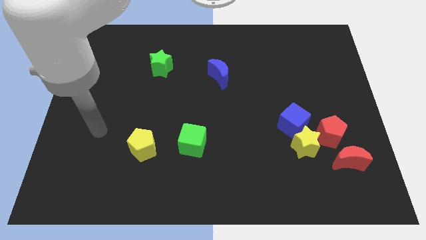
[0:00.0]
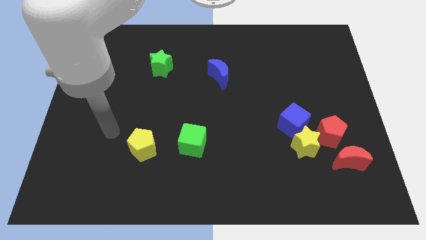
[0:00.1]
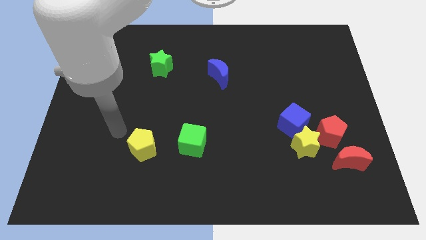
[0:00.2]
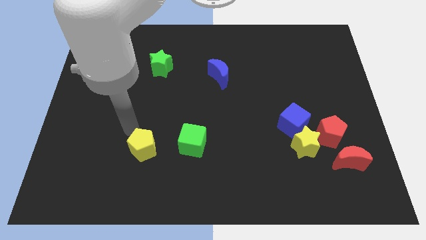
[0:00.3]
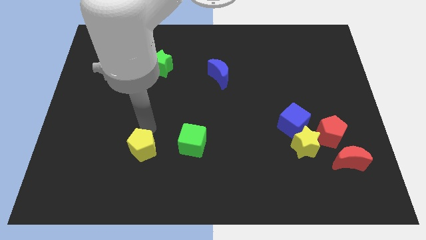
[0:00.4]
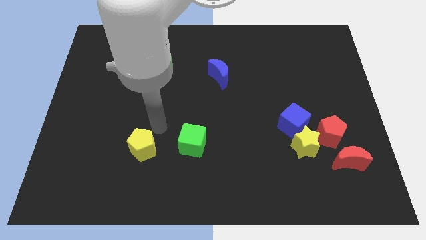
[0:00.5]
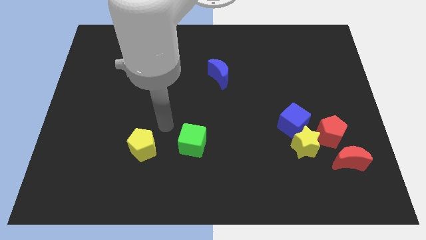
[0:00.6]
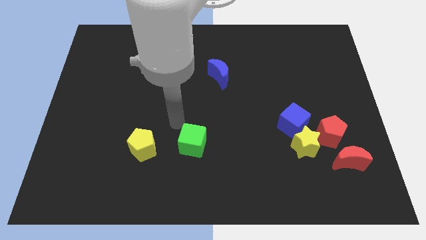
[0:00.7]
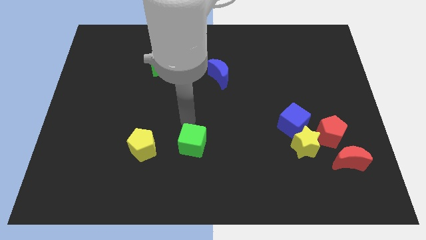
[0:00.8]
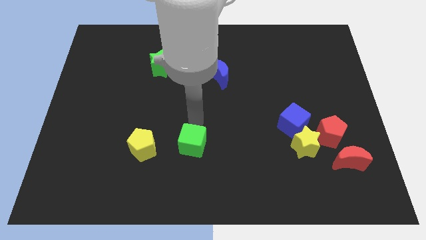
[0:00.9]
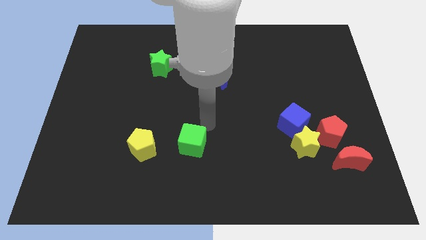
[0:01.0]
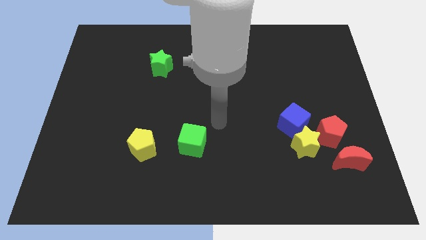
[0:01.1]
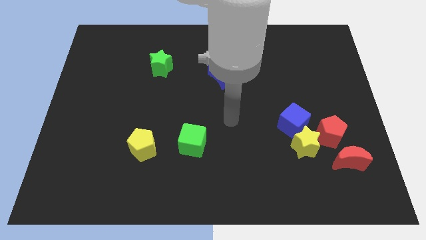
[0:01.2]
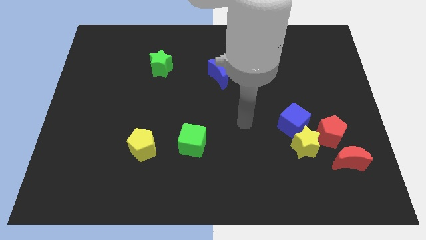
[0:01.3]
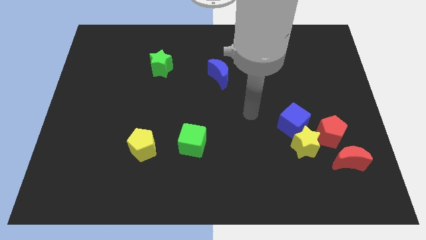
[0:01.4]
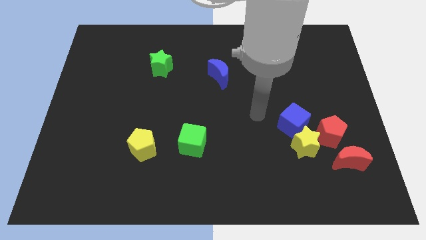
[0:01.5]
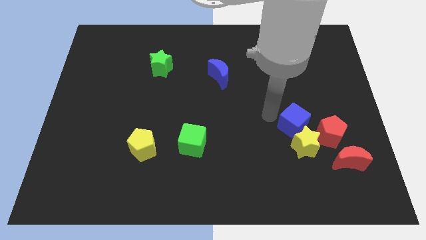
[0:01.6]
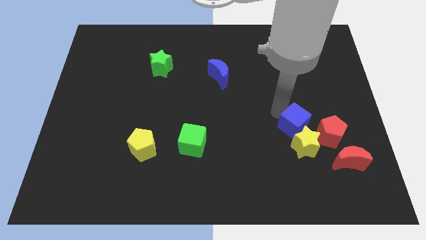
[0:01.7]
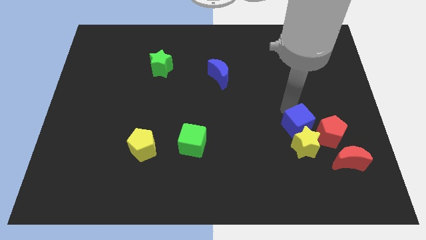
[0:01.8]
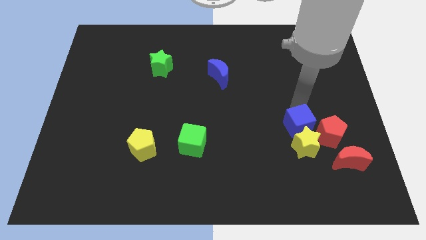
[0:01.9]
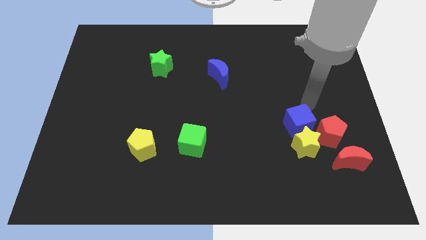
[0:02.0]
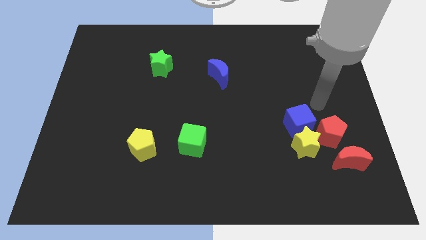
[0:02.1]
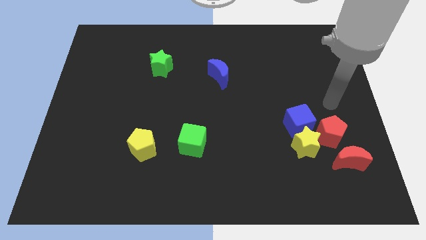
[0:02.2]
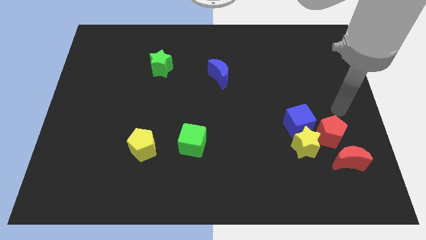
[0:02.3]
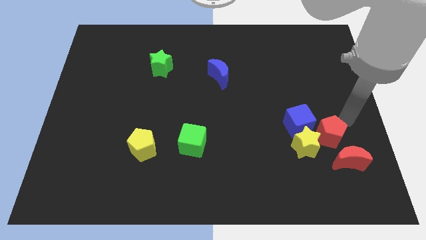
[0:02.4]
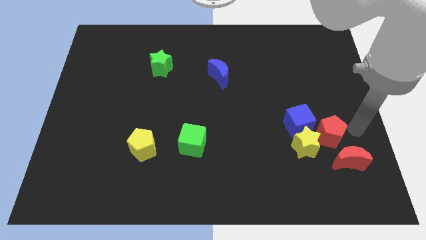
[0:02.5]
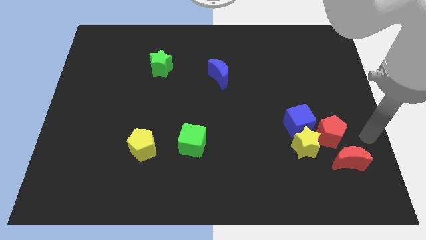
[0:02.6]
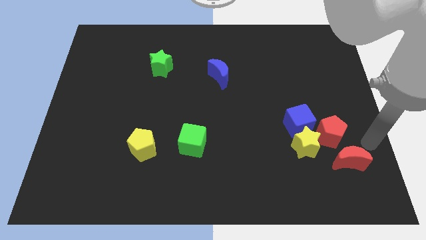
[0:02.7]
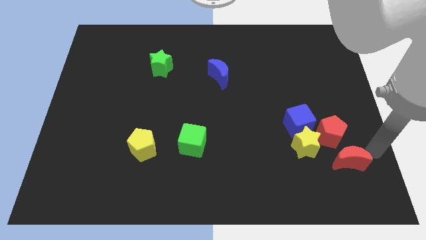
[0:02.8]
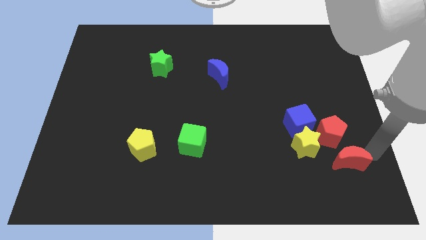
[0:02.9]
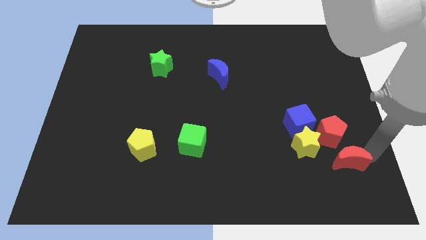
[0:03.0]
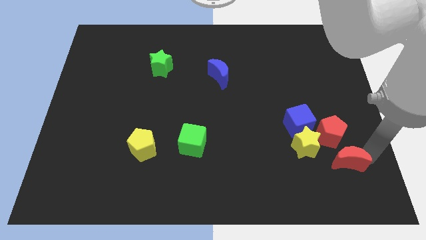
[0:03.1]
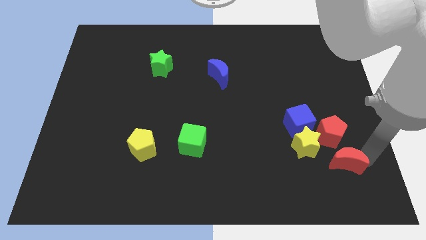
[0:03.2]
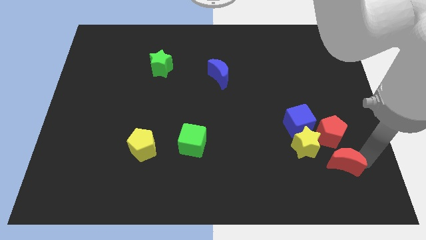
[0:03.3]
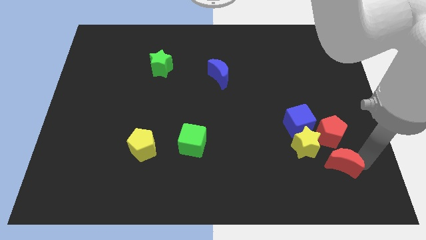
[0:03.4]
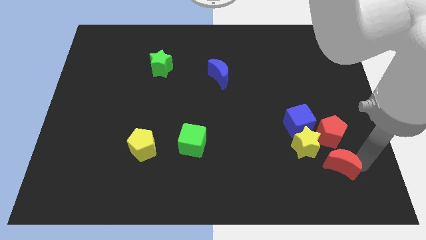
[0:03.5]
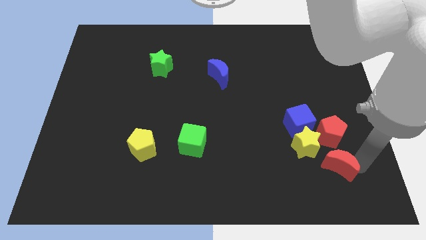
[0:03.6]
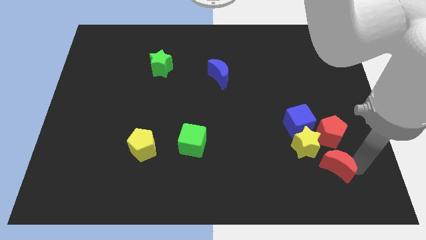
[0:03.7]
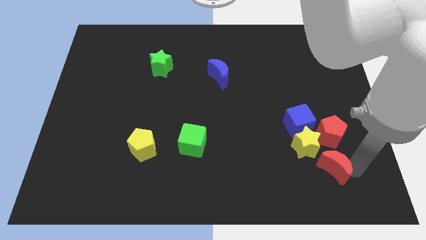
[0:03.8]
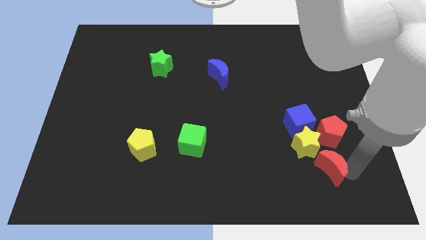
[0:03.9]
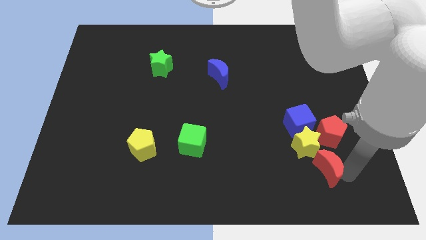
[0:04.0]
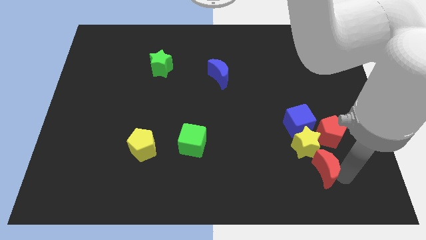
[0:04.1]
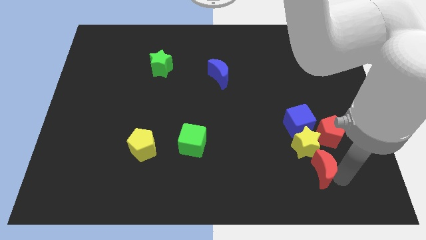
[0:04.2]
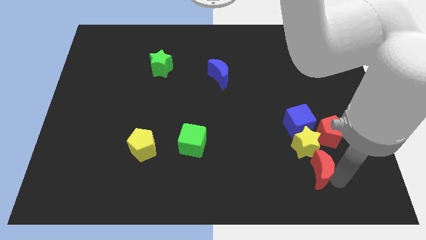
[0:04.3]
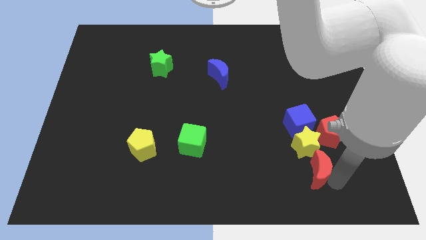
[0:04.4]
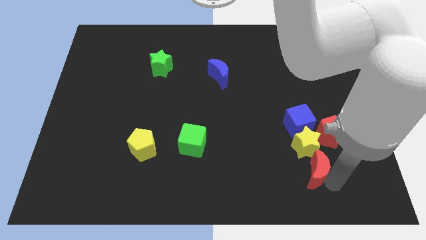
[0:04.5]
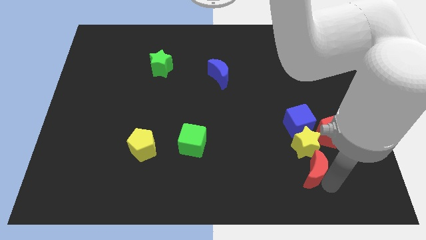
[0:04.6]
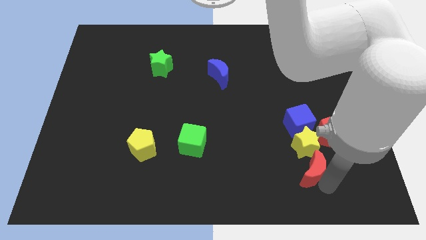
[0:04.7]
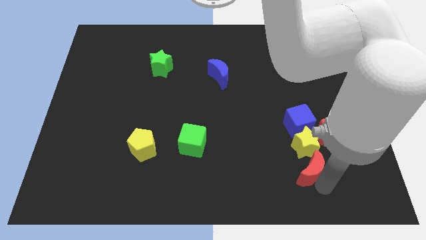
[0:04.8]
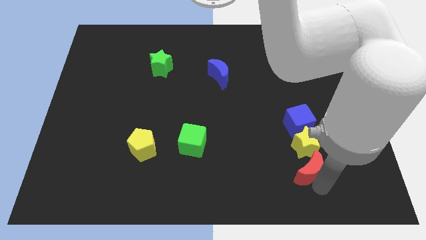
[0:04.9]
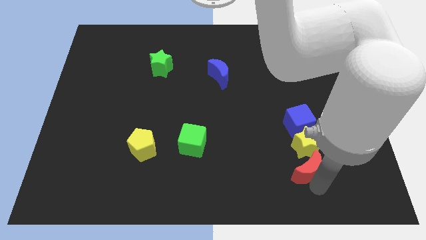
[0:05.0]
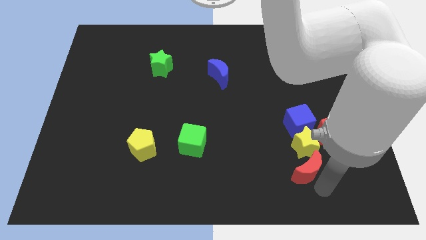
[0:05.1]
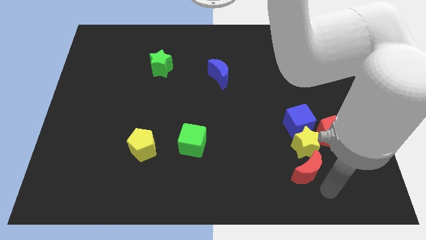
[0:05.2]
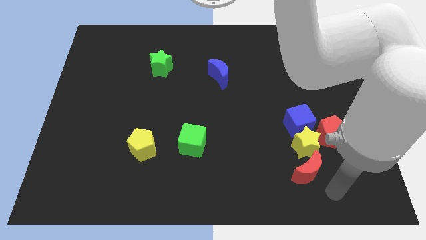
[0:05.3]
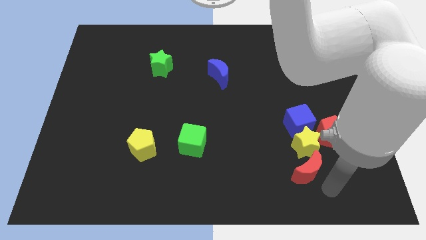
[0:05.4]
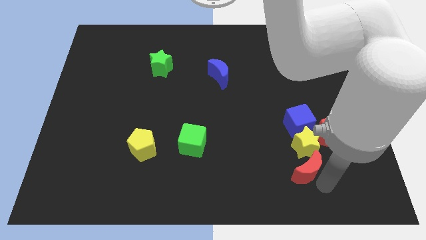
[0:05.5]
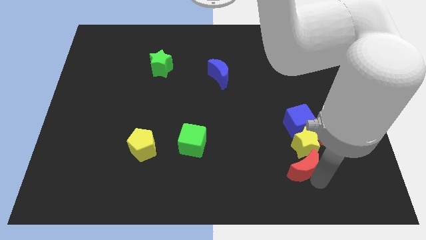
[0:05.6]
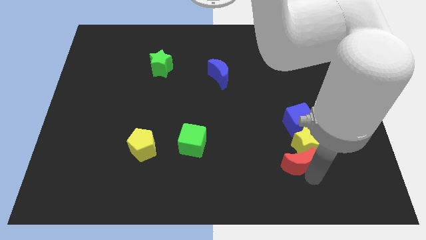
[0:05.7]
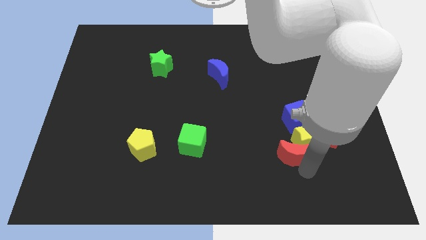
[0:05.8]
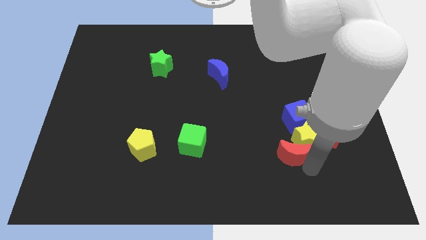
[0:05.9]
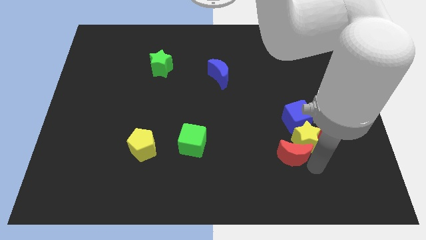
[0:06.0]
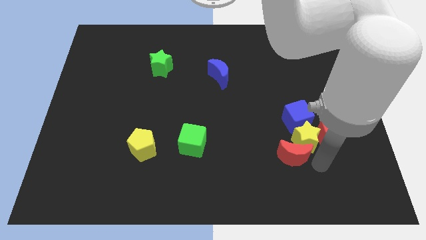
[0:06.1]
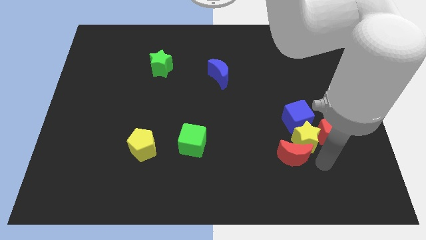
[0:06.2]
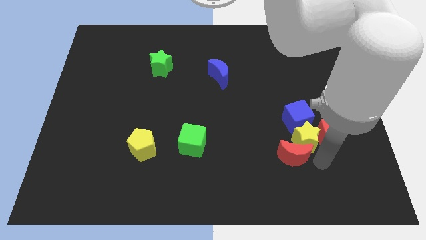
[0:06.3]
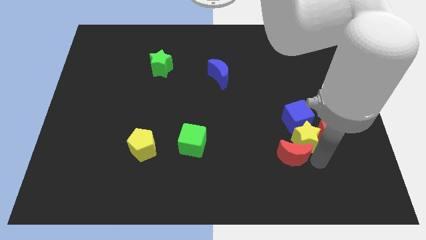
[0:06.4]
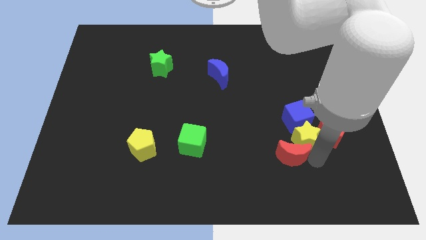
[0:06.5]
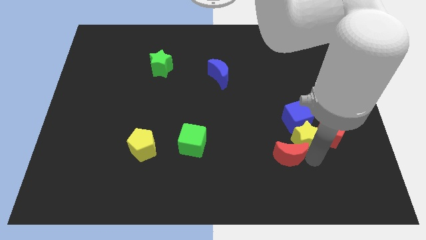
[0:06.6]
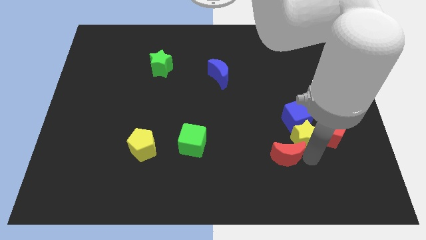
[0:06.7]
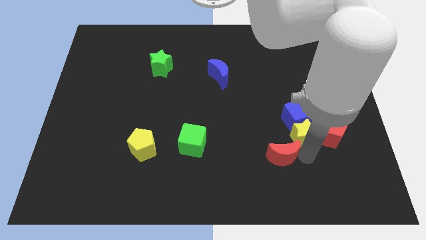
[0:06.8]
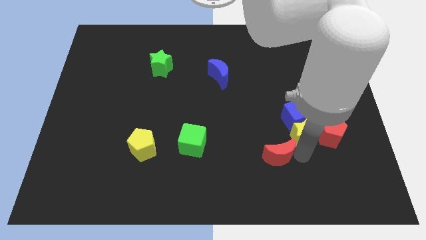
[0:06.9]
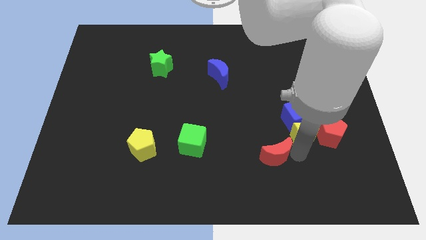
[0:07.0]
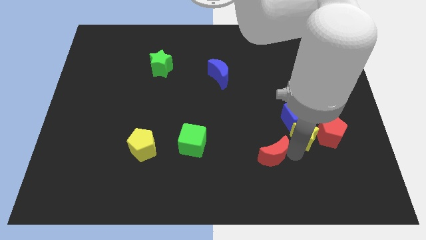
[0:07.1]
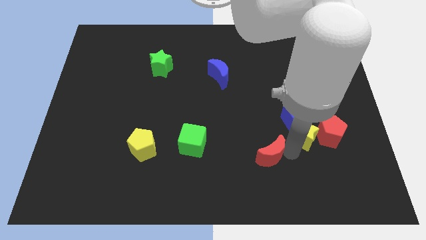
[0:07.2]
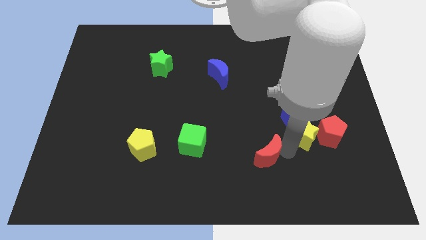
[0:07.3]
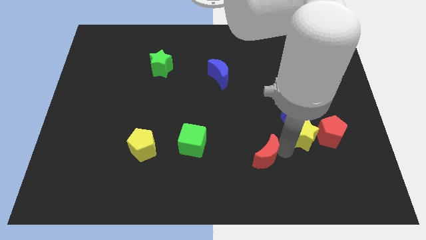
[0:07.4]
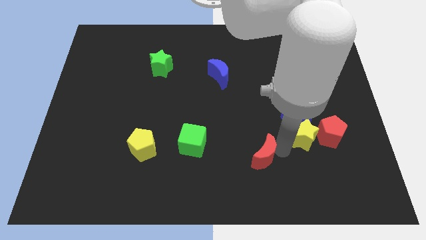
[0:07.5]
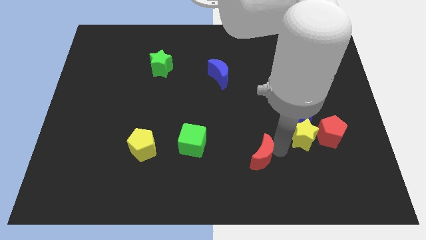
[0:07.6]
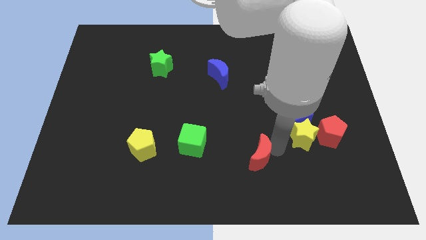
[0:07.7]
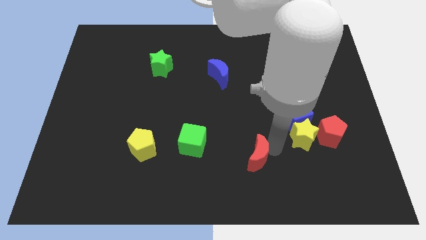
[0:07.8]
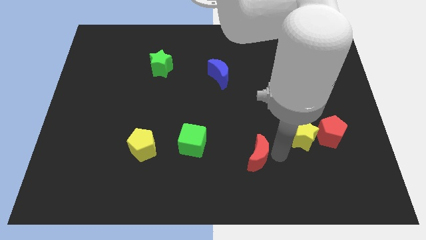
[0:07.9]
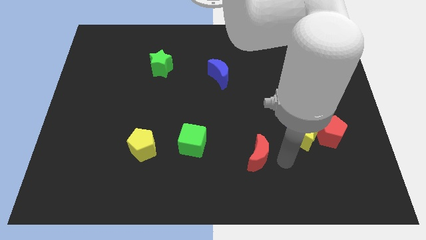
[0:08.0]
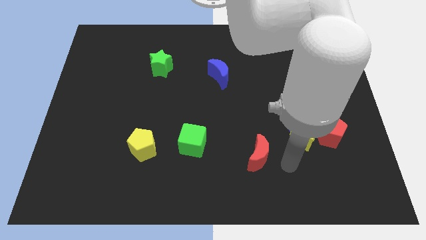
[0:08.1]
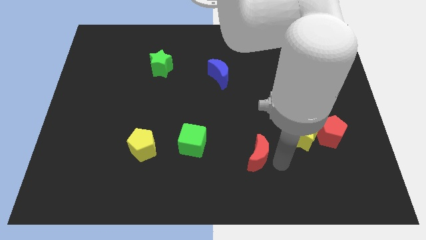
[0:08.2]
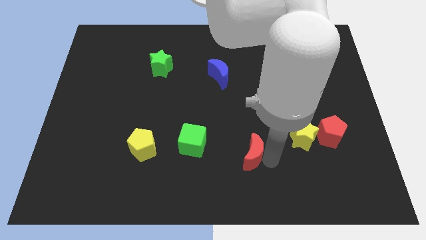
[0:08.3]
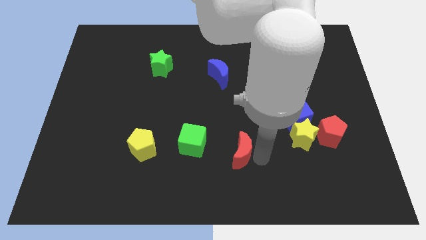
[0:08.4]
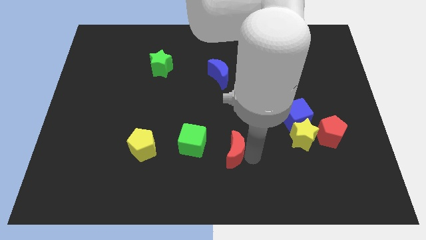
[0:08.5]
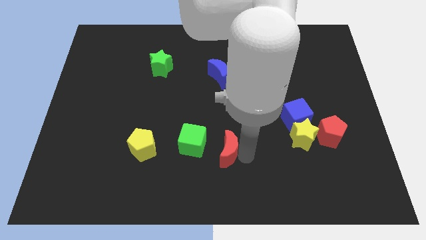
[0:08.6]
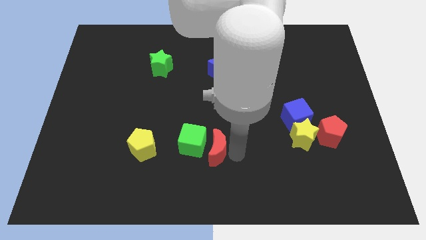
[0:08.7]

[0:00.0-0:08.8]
push the red moon towards the green cube
